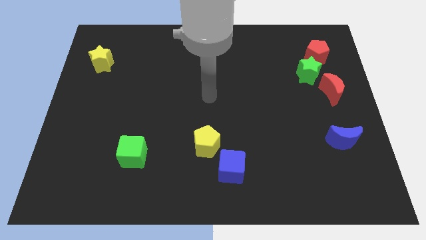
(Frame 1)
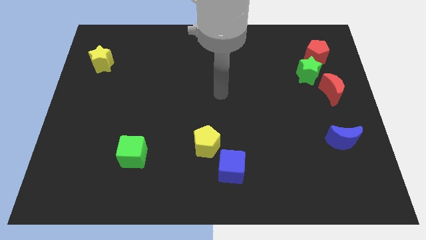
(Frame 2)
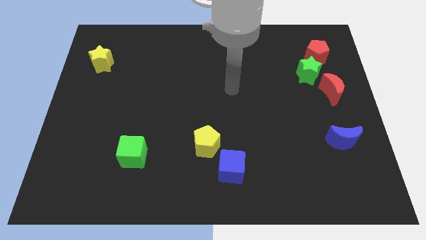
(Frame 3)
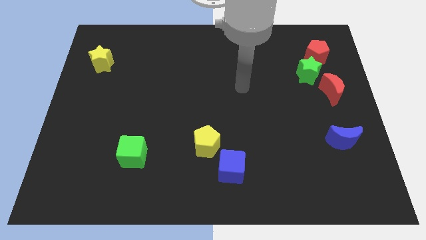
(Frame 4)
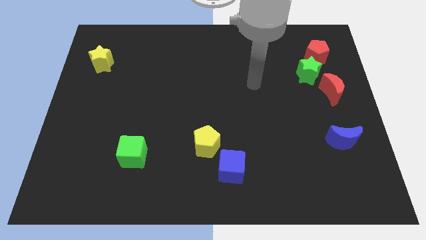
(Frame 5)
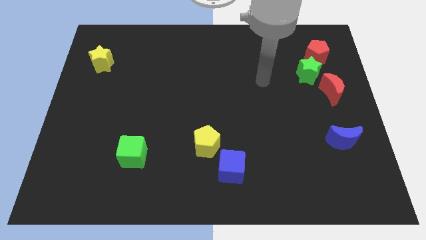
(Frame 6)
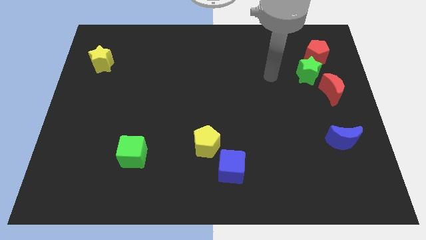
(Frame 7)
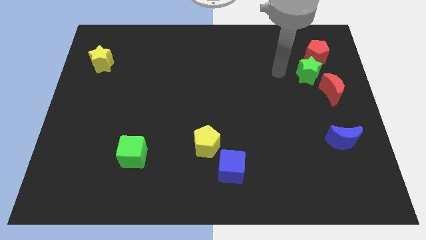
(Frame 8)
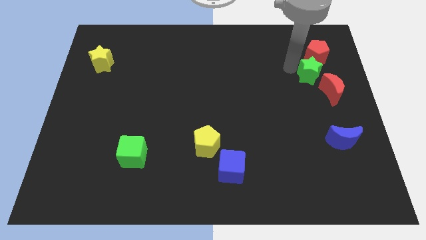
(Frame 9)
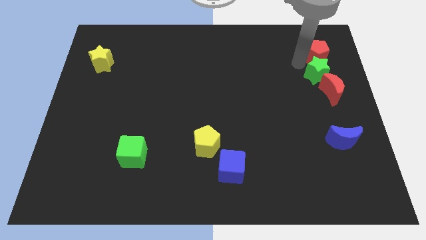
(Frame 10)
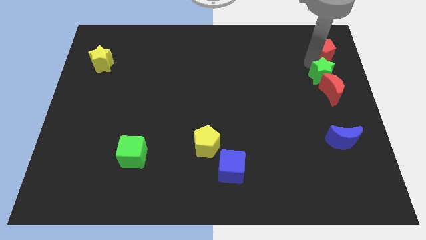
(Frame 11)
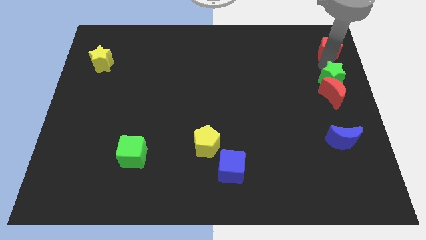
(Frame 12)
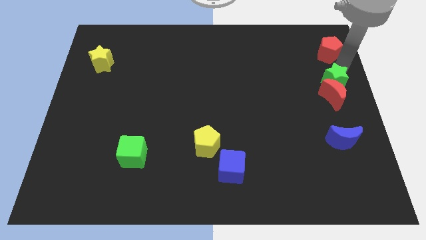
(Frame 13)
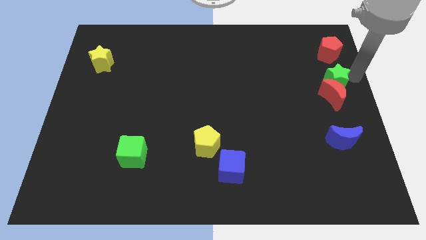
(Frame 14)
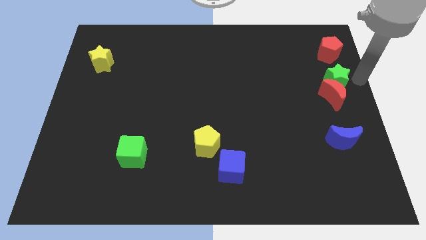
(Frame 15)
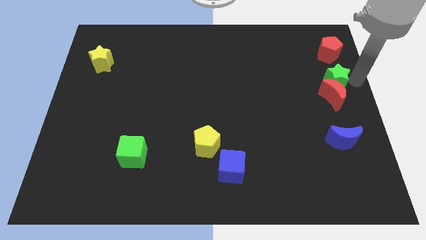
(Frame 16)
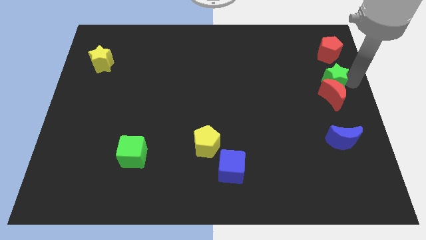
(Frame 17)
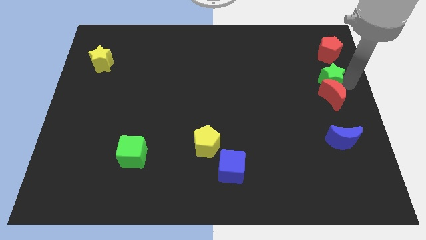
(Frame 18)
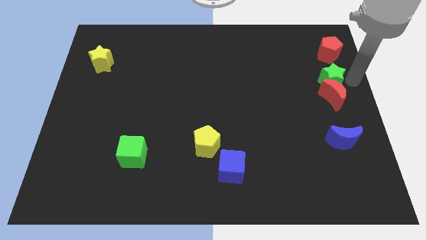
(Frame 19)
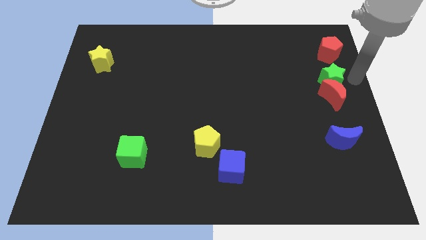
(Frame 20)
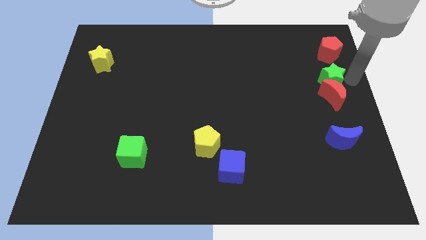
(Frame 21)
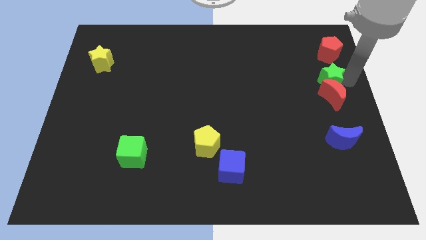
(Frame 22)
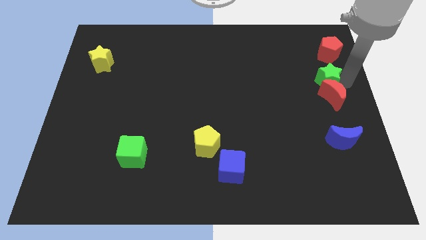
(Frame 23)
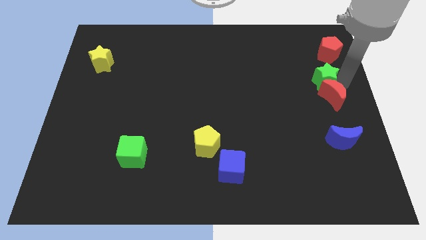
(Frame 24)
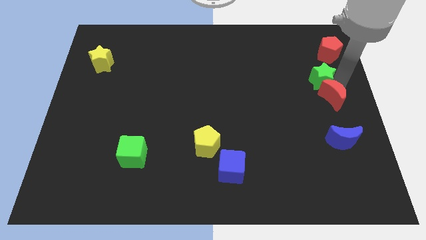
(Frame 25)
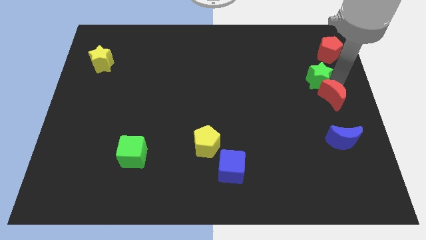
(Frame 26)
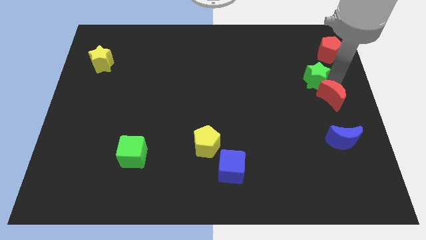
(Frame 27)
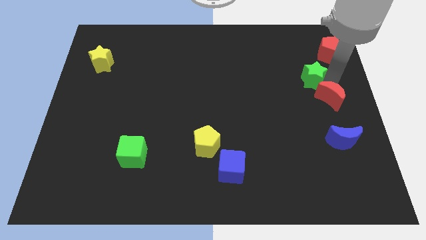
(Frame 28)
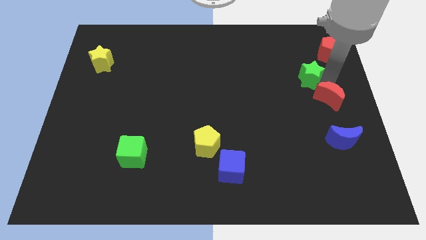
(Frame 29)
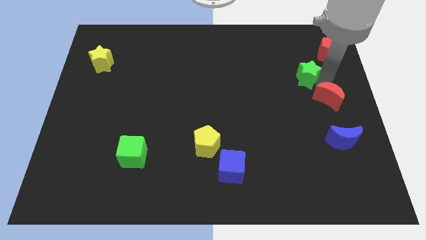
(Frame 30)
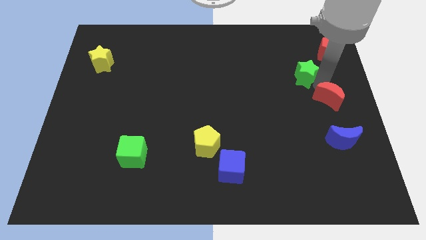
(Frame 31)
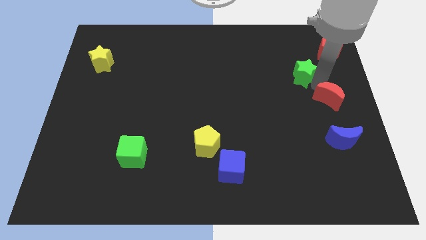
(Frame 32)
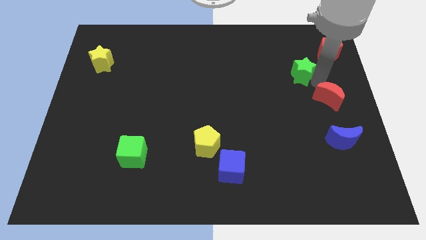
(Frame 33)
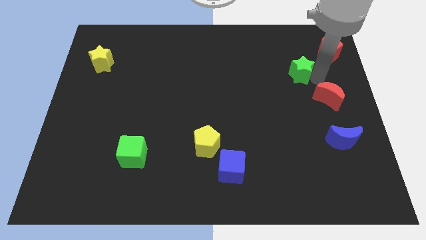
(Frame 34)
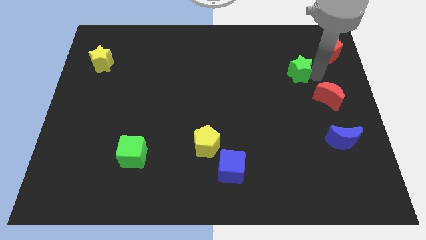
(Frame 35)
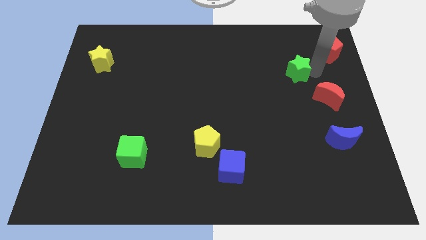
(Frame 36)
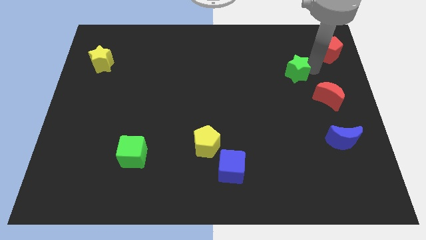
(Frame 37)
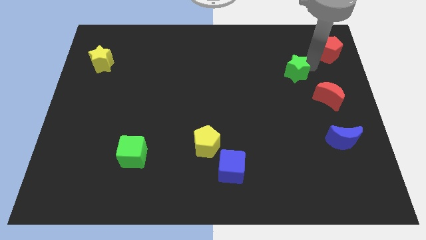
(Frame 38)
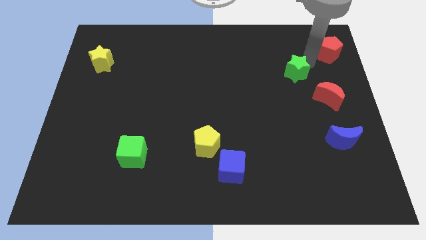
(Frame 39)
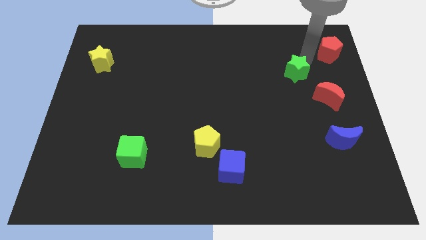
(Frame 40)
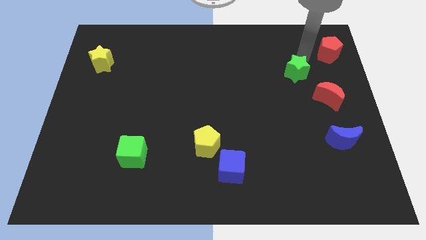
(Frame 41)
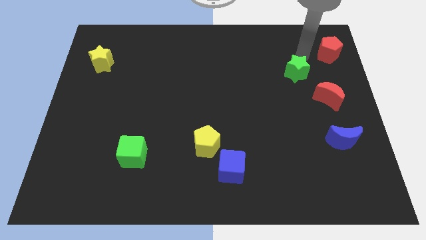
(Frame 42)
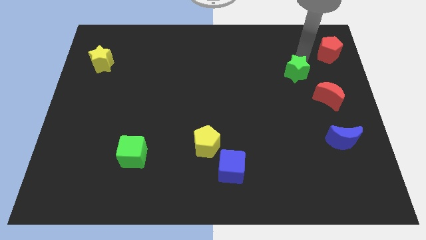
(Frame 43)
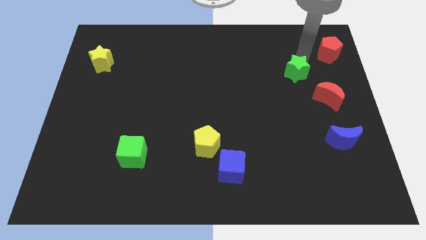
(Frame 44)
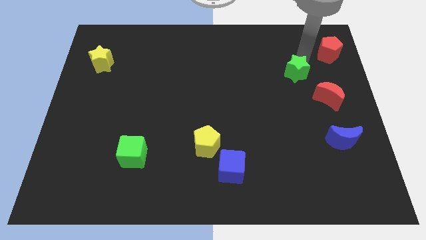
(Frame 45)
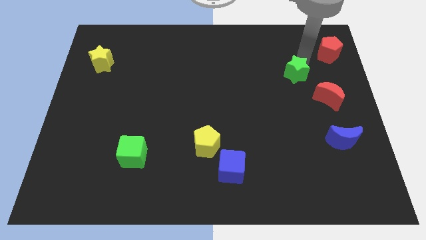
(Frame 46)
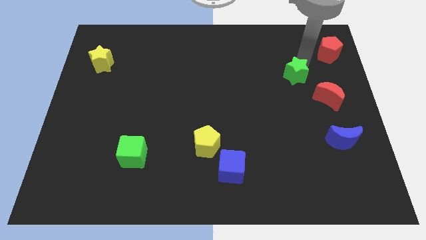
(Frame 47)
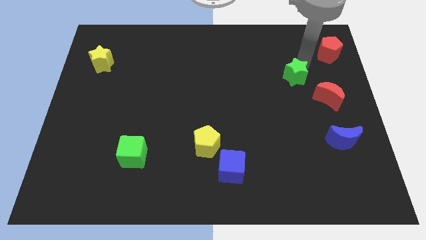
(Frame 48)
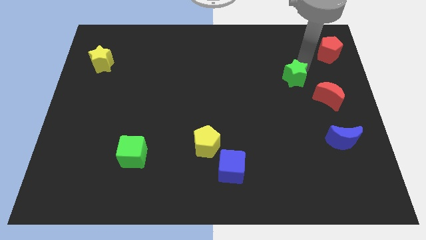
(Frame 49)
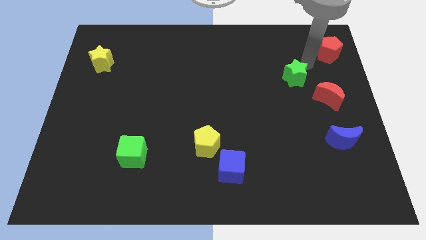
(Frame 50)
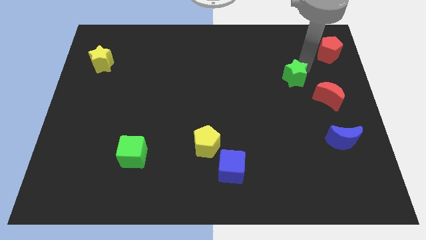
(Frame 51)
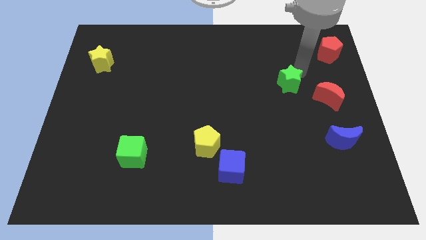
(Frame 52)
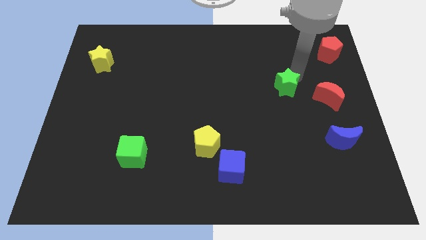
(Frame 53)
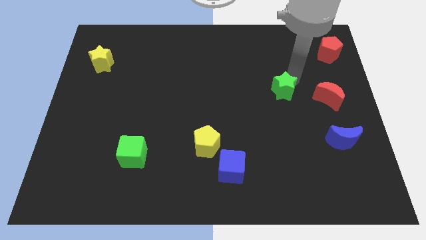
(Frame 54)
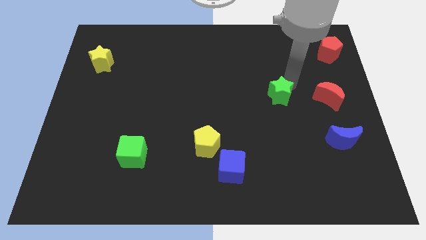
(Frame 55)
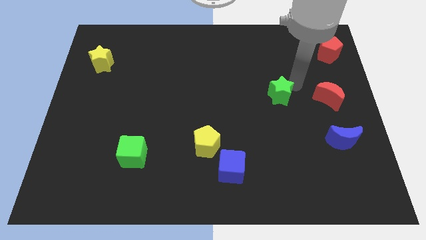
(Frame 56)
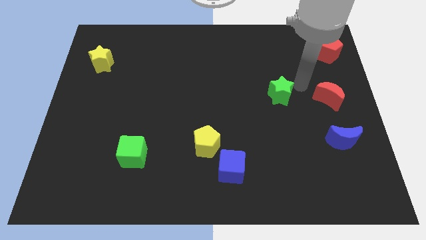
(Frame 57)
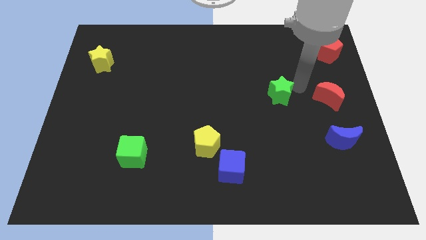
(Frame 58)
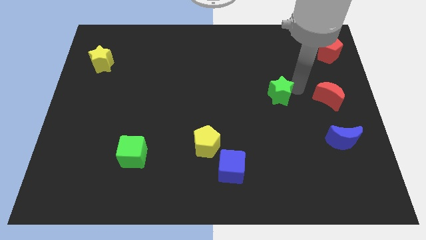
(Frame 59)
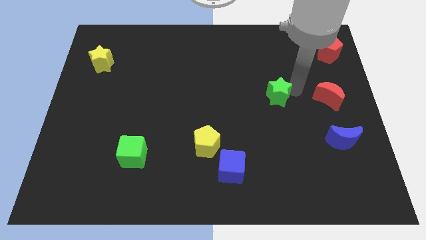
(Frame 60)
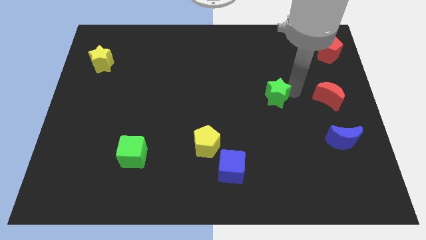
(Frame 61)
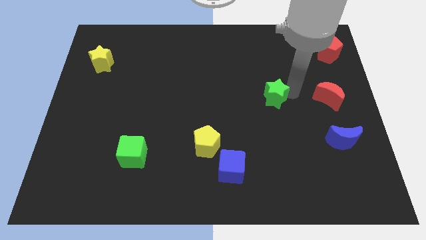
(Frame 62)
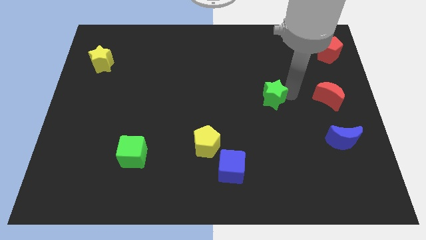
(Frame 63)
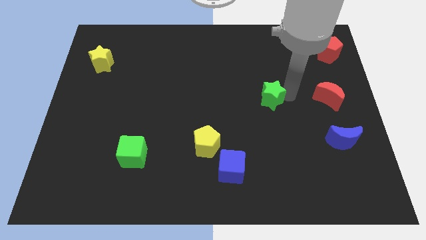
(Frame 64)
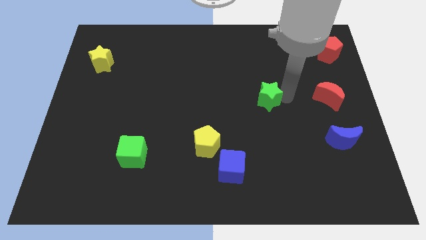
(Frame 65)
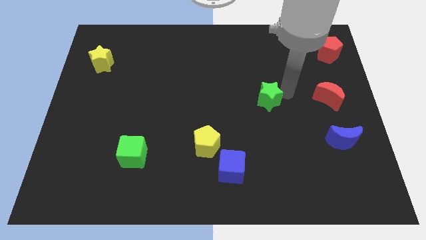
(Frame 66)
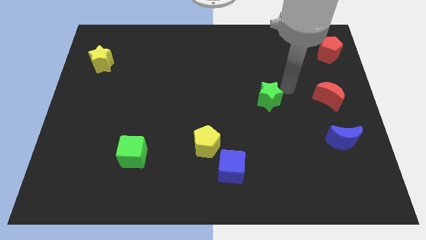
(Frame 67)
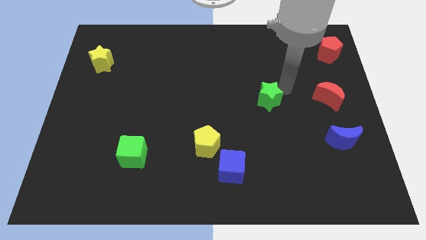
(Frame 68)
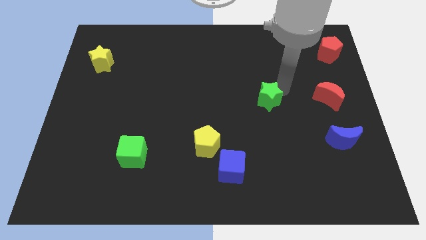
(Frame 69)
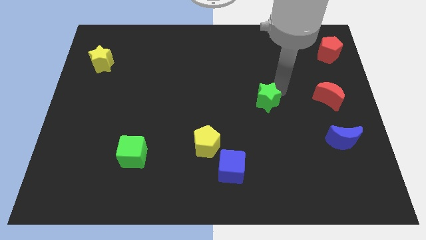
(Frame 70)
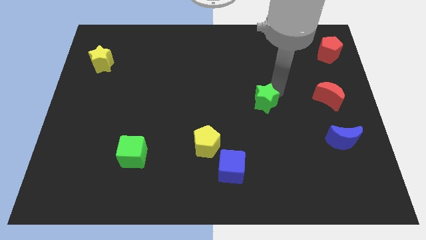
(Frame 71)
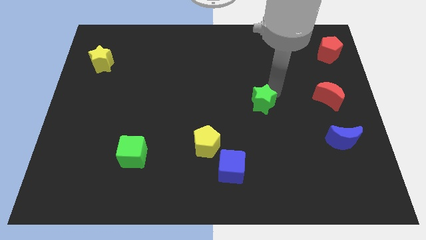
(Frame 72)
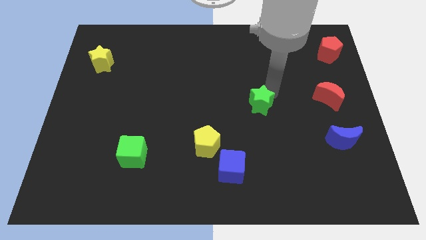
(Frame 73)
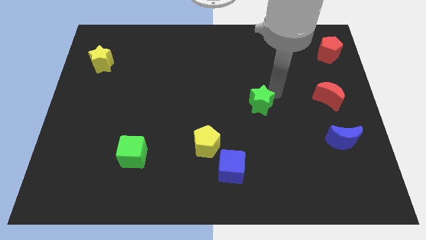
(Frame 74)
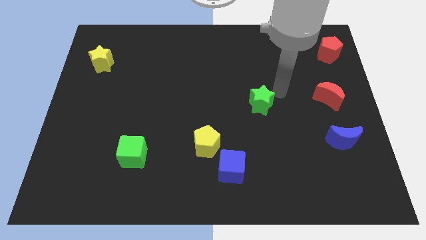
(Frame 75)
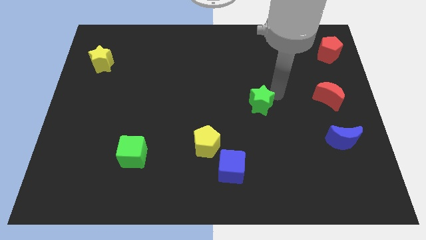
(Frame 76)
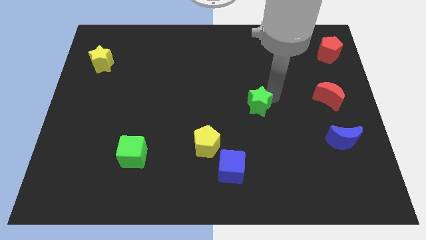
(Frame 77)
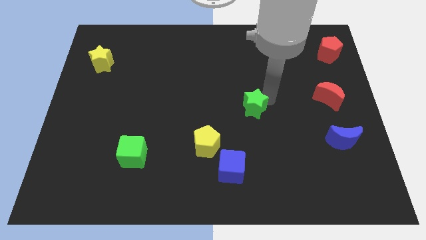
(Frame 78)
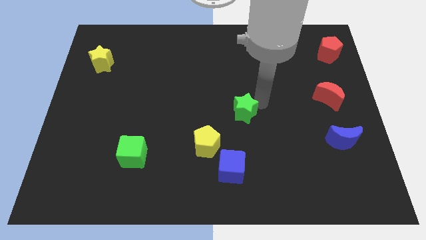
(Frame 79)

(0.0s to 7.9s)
push the green star above the blue cube
